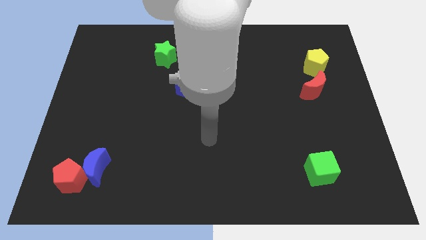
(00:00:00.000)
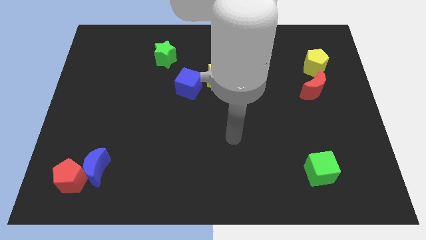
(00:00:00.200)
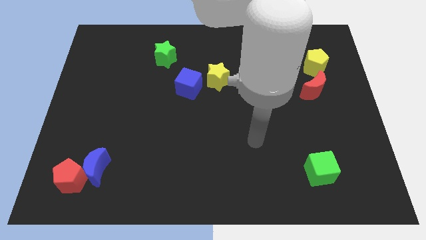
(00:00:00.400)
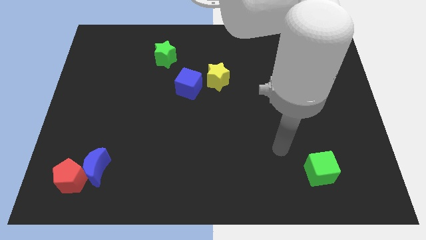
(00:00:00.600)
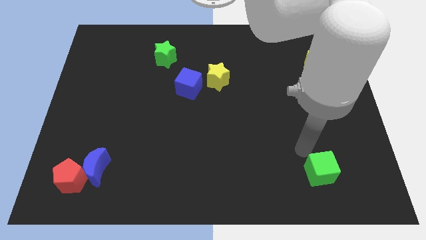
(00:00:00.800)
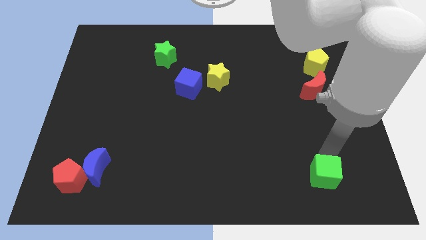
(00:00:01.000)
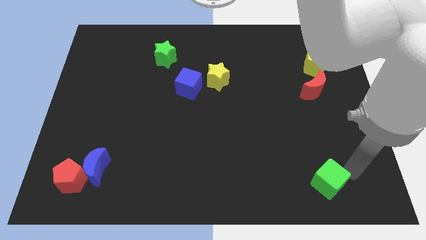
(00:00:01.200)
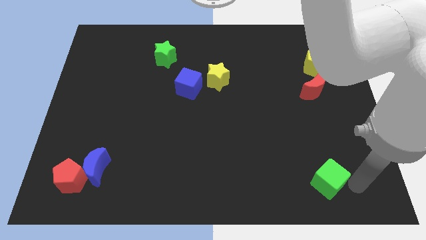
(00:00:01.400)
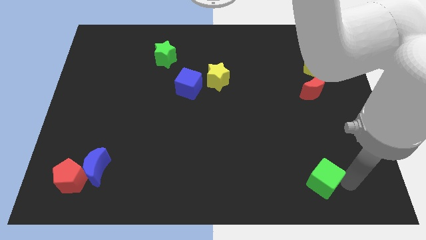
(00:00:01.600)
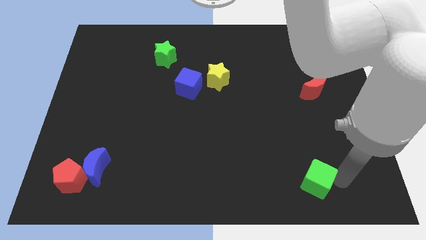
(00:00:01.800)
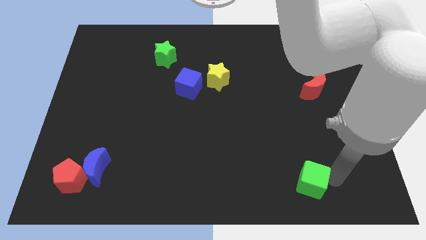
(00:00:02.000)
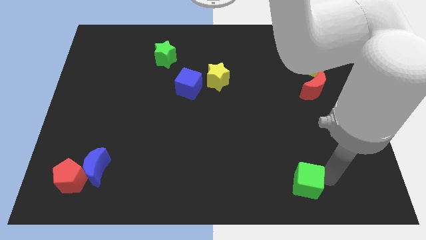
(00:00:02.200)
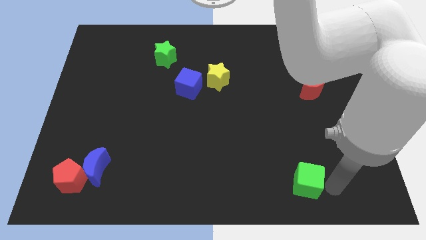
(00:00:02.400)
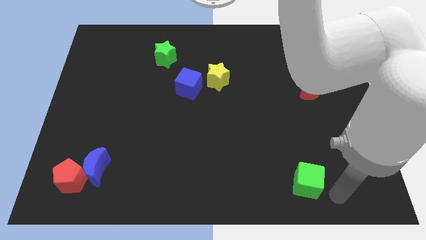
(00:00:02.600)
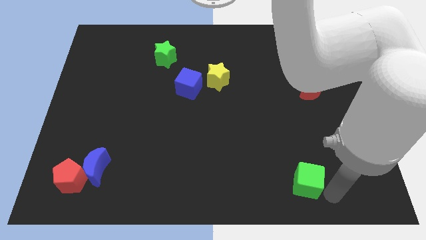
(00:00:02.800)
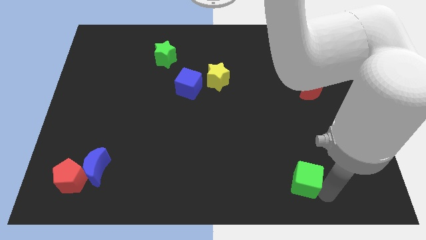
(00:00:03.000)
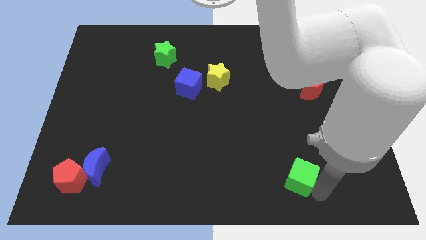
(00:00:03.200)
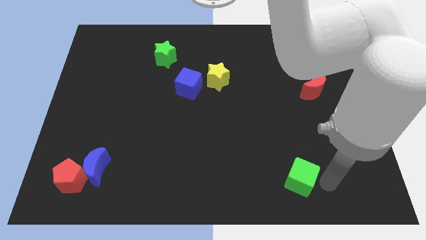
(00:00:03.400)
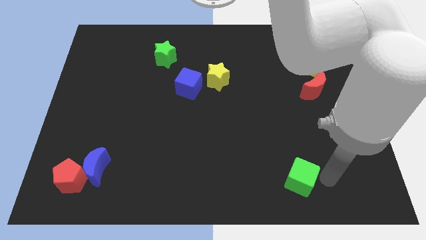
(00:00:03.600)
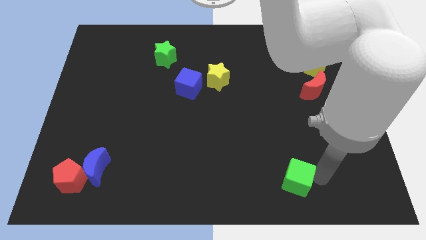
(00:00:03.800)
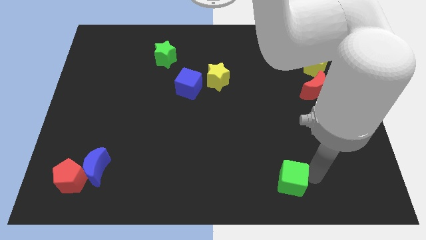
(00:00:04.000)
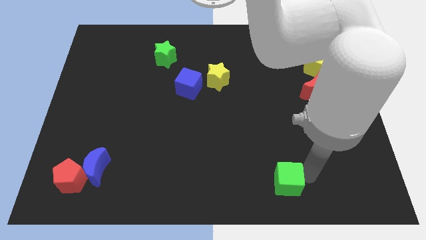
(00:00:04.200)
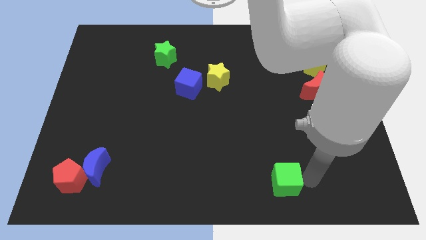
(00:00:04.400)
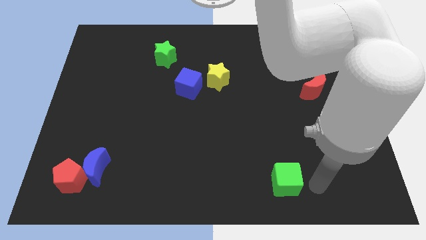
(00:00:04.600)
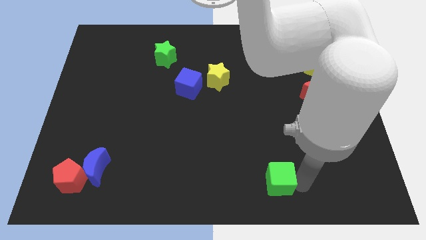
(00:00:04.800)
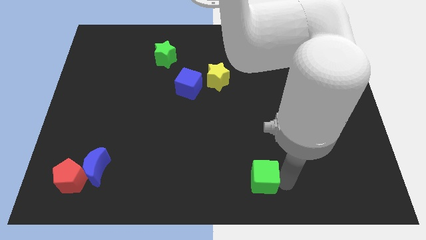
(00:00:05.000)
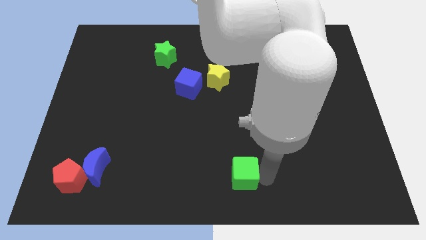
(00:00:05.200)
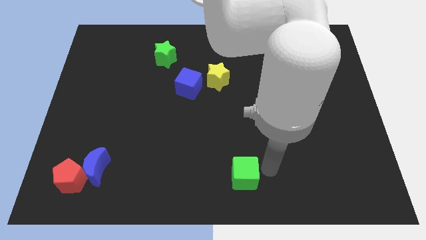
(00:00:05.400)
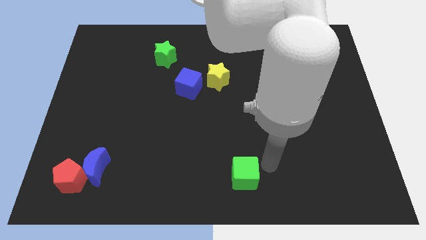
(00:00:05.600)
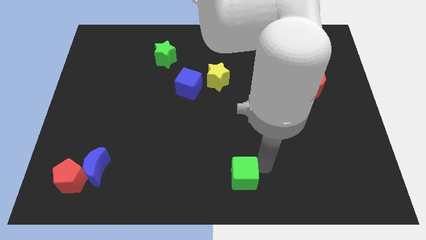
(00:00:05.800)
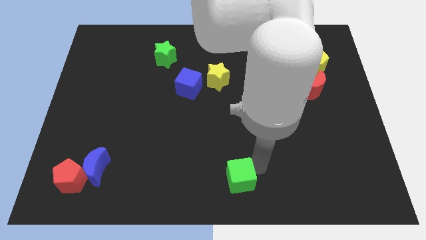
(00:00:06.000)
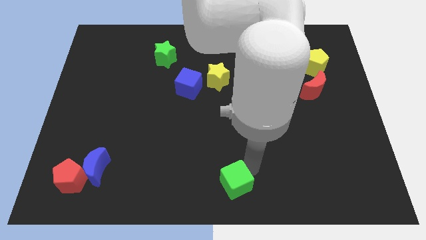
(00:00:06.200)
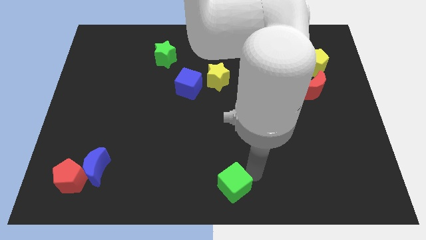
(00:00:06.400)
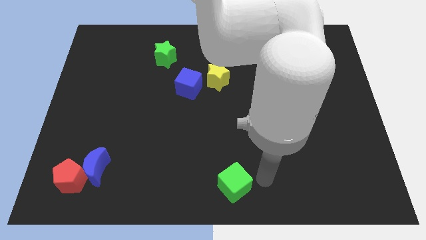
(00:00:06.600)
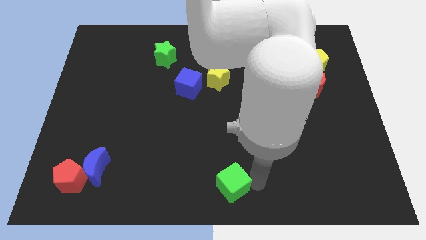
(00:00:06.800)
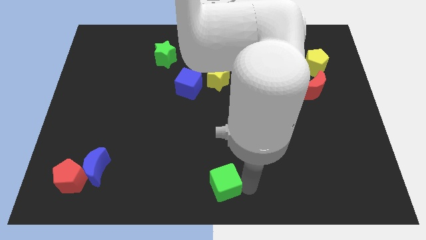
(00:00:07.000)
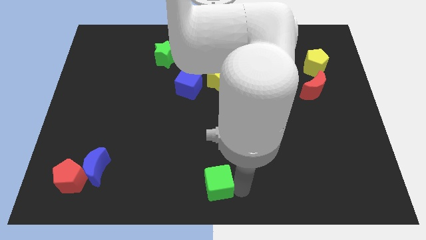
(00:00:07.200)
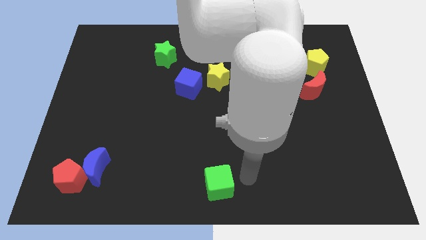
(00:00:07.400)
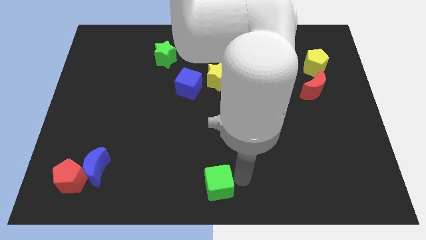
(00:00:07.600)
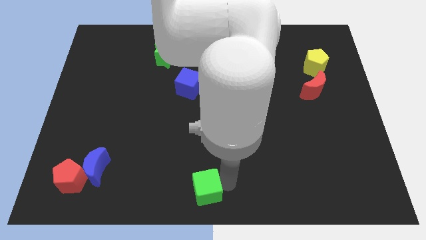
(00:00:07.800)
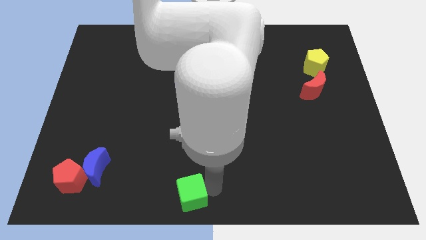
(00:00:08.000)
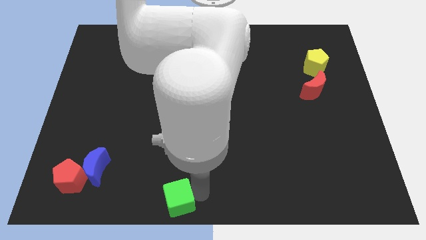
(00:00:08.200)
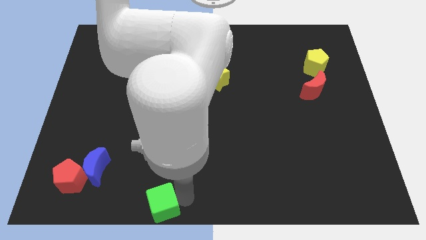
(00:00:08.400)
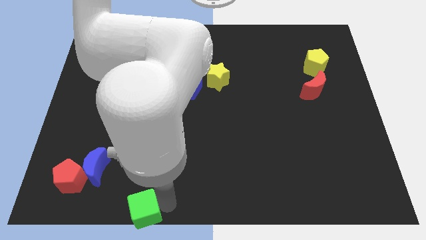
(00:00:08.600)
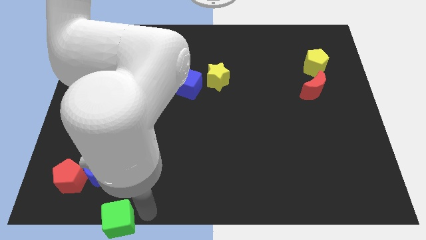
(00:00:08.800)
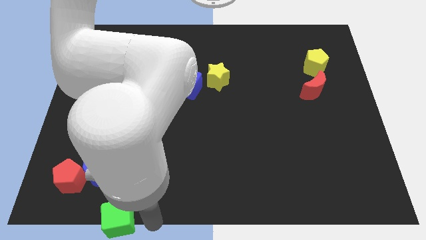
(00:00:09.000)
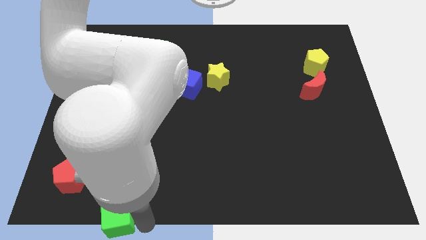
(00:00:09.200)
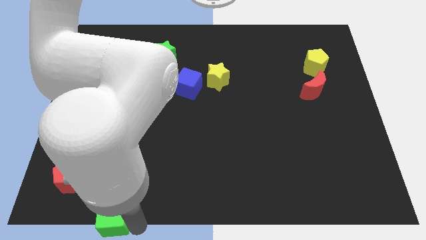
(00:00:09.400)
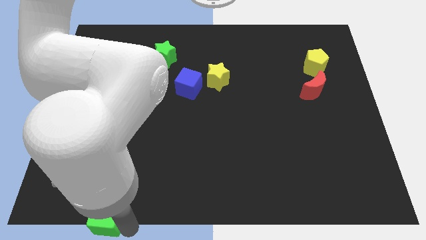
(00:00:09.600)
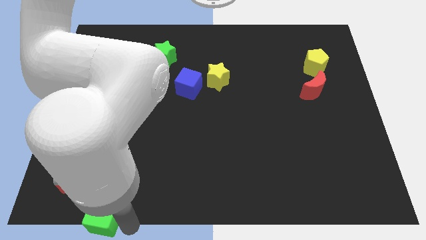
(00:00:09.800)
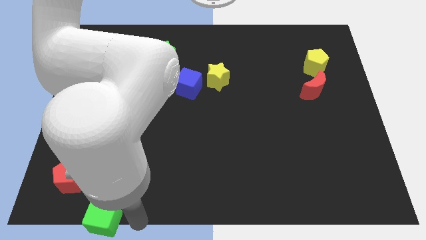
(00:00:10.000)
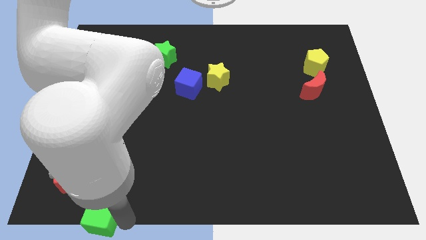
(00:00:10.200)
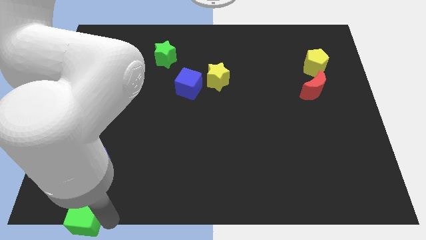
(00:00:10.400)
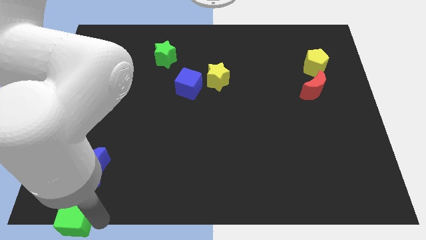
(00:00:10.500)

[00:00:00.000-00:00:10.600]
move the green cube to the bottom left of the board

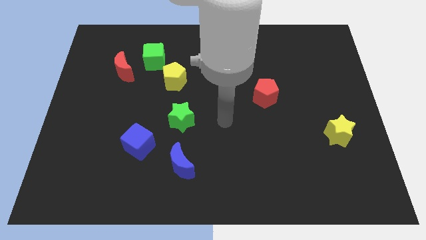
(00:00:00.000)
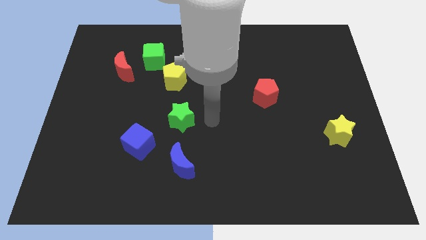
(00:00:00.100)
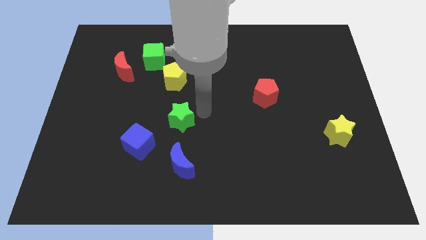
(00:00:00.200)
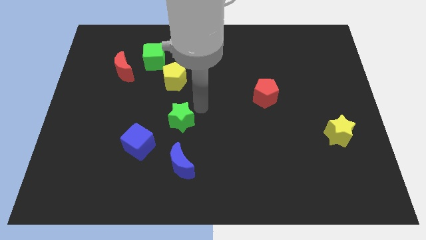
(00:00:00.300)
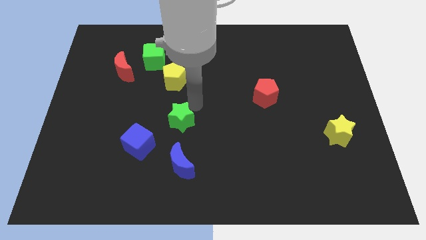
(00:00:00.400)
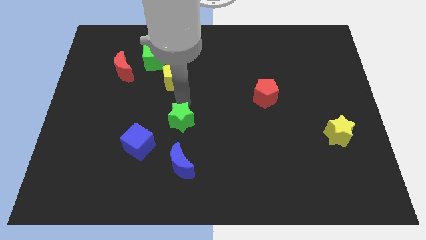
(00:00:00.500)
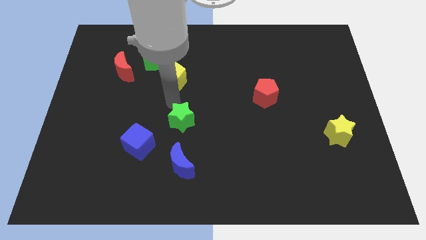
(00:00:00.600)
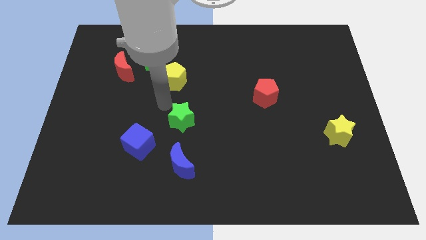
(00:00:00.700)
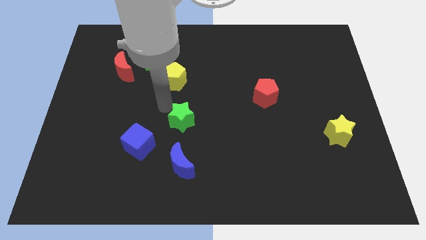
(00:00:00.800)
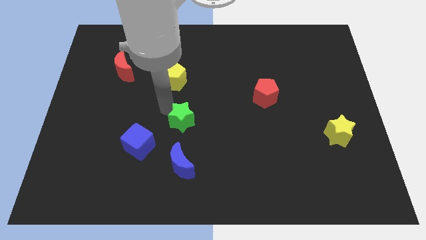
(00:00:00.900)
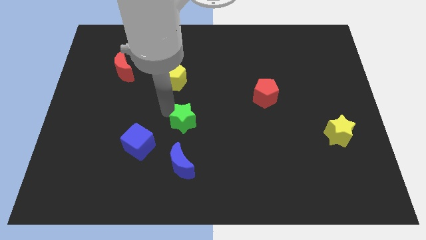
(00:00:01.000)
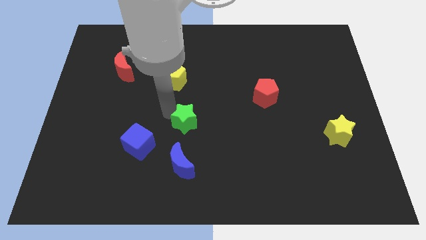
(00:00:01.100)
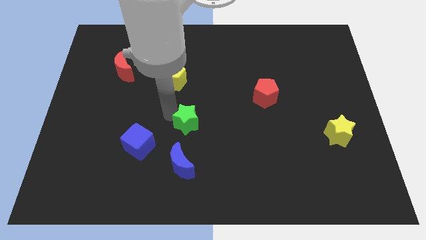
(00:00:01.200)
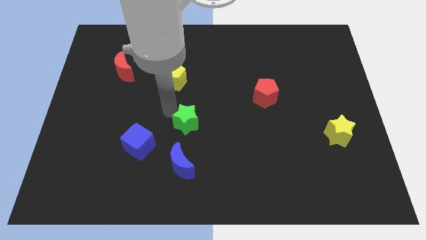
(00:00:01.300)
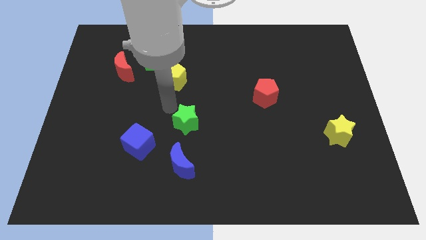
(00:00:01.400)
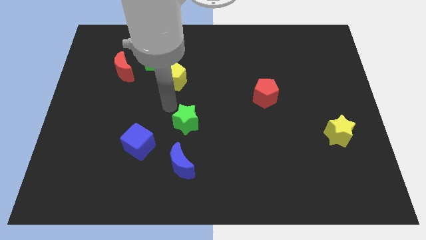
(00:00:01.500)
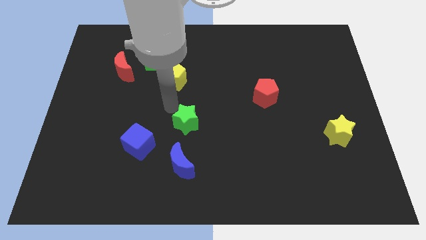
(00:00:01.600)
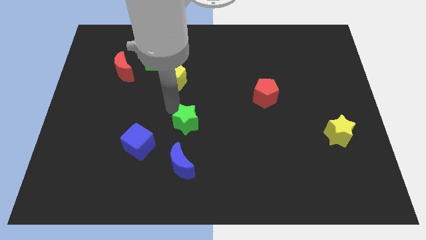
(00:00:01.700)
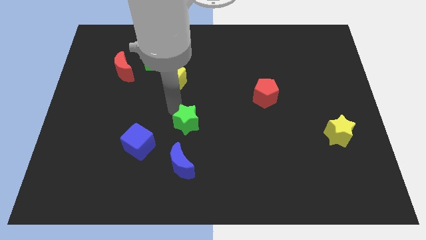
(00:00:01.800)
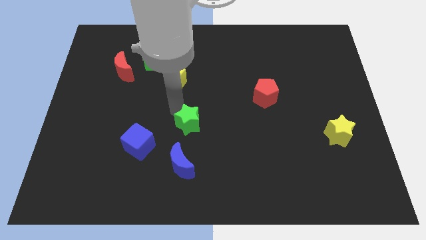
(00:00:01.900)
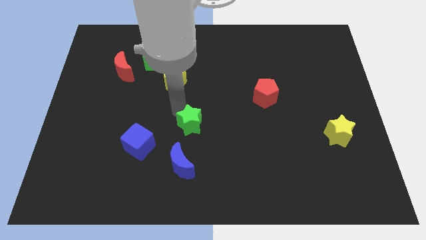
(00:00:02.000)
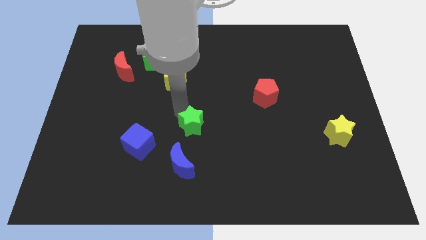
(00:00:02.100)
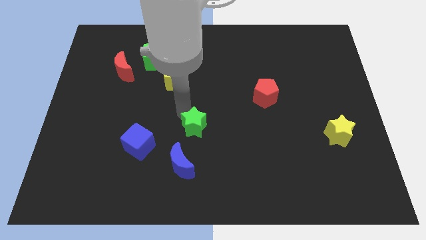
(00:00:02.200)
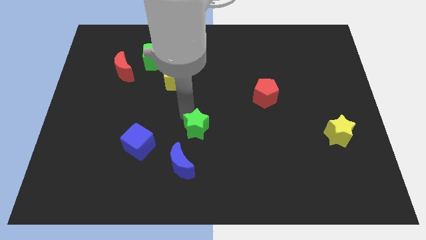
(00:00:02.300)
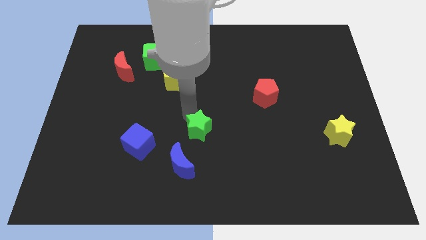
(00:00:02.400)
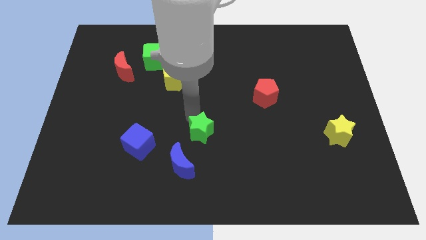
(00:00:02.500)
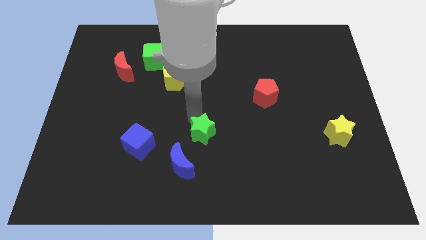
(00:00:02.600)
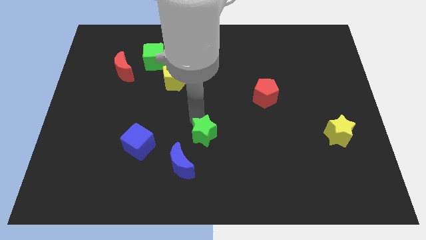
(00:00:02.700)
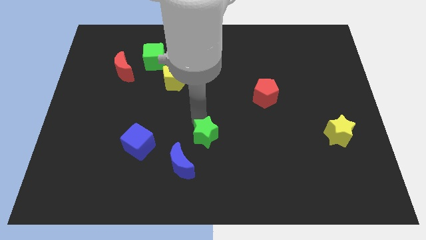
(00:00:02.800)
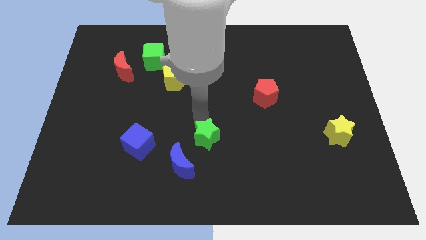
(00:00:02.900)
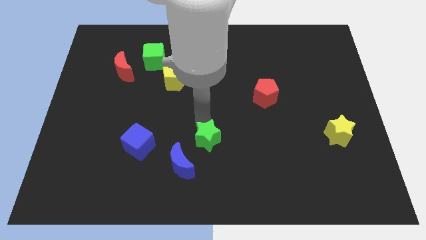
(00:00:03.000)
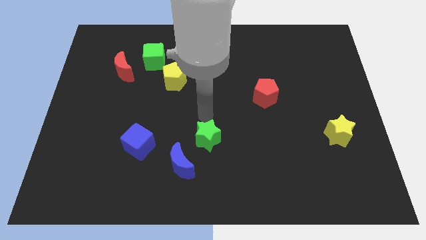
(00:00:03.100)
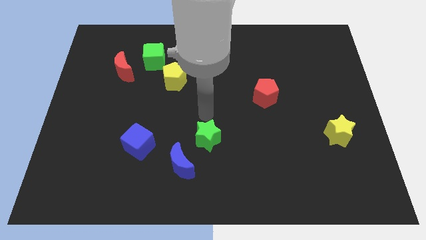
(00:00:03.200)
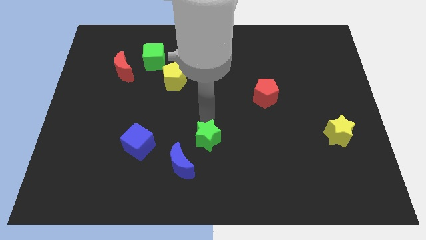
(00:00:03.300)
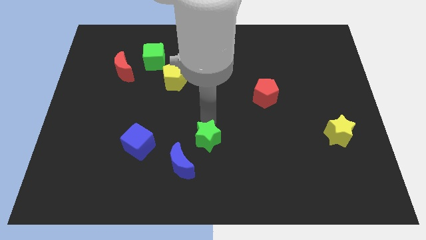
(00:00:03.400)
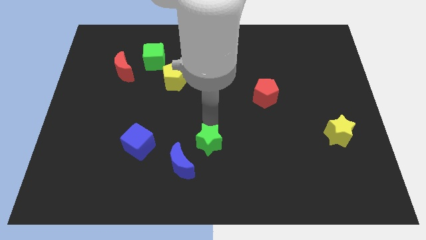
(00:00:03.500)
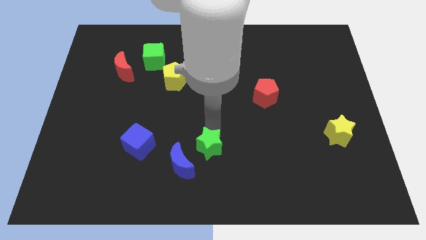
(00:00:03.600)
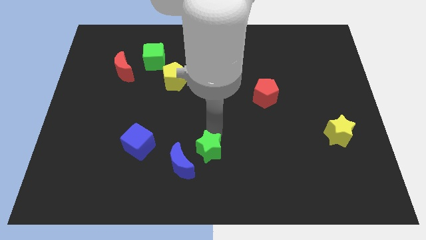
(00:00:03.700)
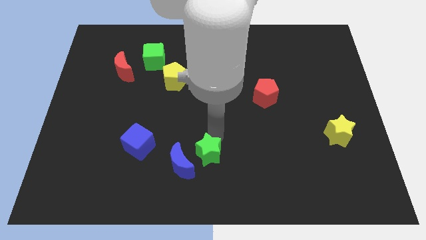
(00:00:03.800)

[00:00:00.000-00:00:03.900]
move the green star to the bottom
